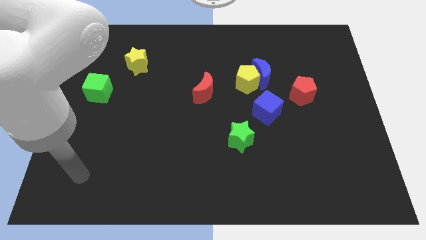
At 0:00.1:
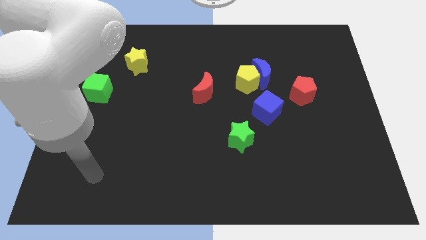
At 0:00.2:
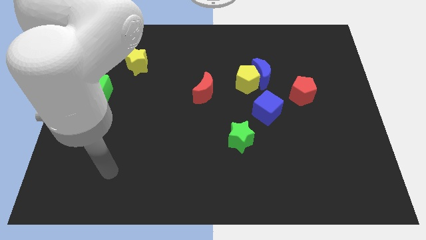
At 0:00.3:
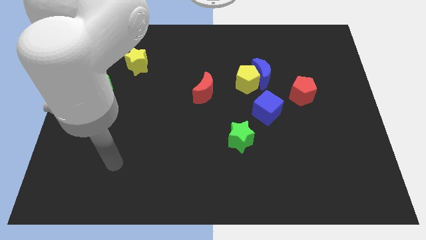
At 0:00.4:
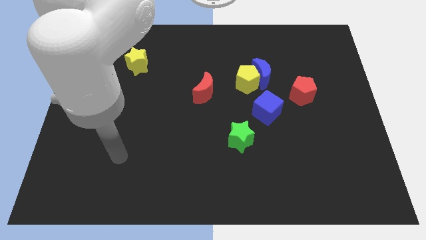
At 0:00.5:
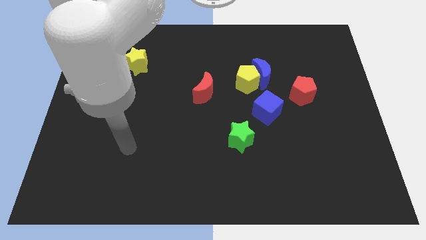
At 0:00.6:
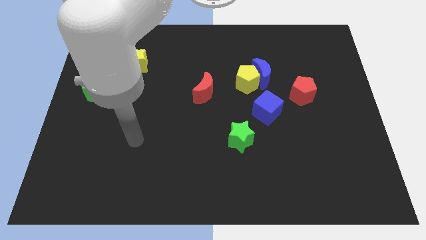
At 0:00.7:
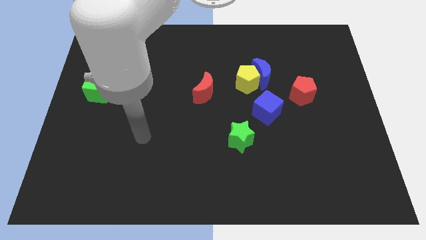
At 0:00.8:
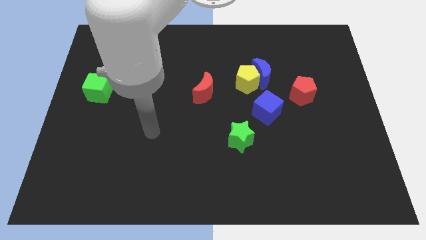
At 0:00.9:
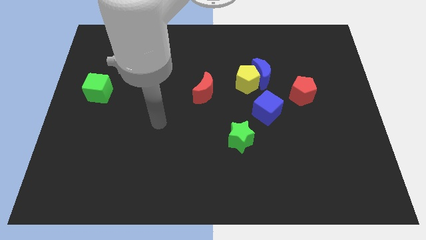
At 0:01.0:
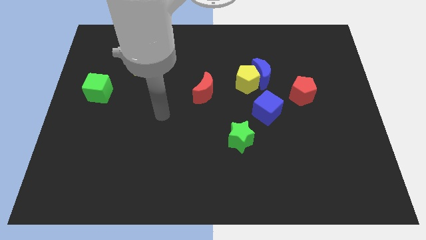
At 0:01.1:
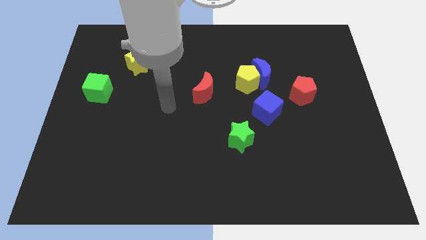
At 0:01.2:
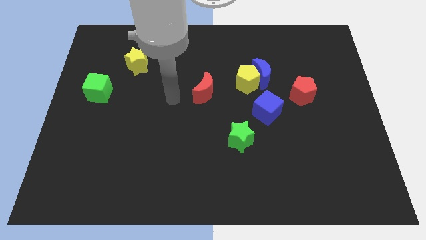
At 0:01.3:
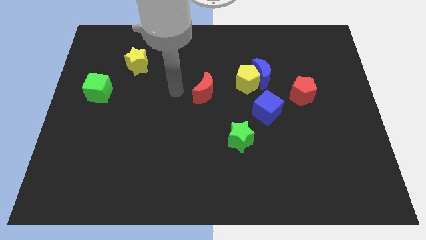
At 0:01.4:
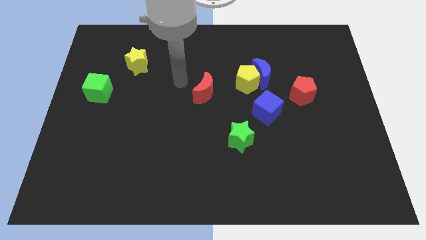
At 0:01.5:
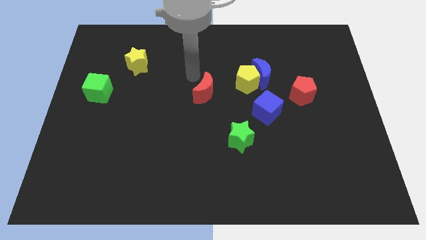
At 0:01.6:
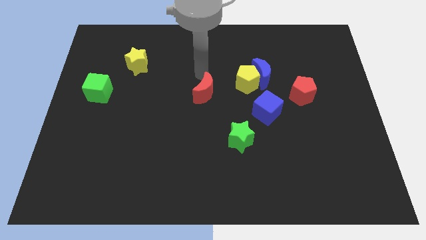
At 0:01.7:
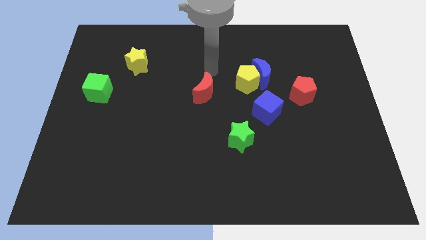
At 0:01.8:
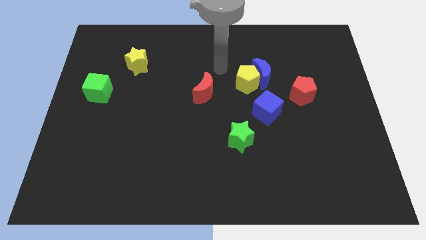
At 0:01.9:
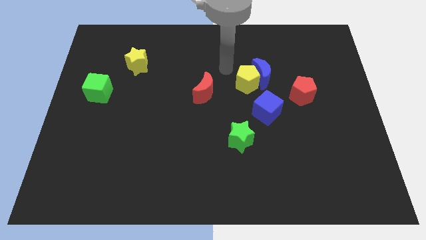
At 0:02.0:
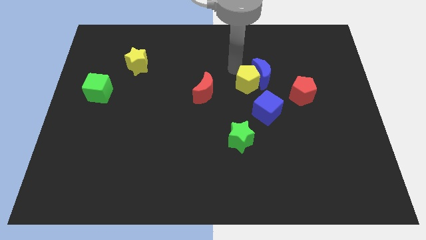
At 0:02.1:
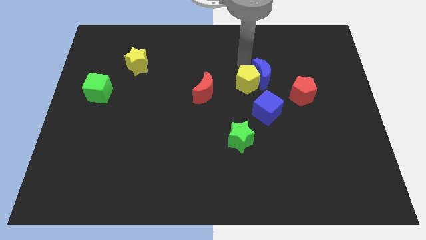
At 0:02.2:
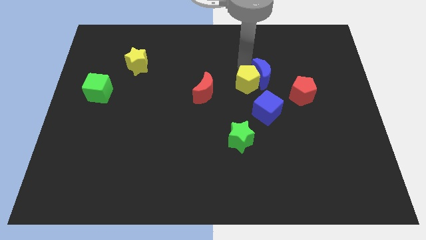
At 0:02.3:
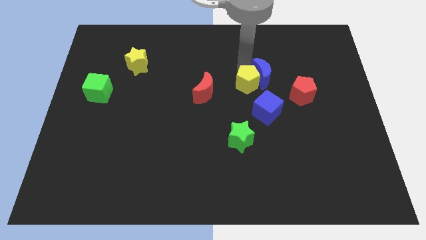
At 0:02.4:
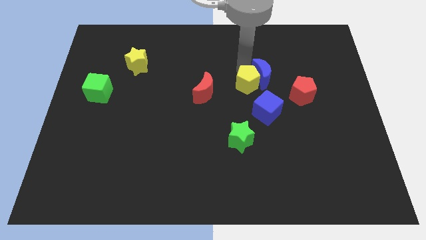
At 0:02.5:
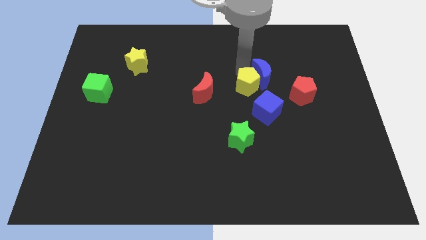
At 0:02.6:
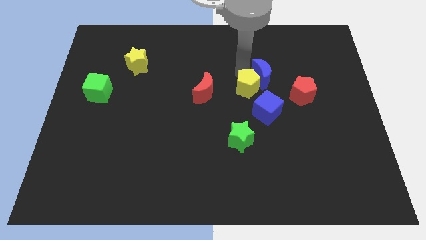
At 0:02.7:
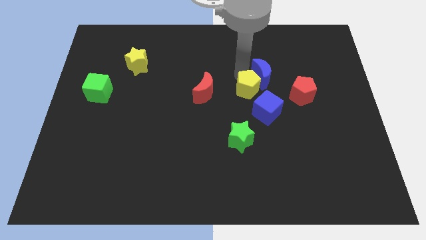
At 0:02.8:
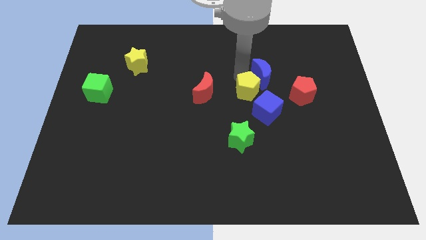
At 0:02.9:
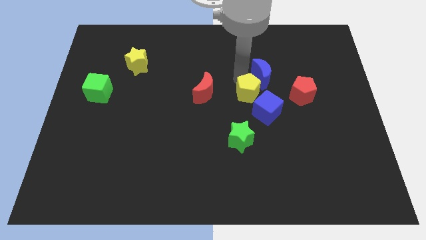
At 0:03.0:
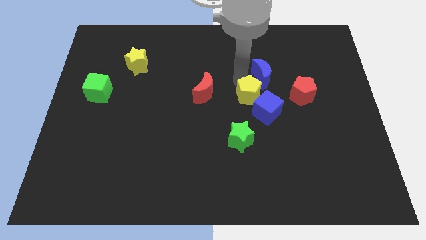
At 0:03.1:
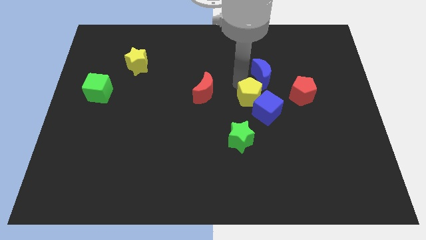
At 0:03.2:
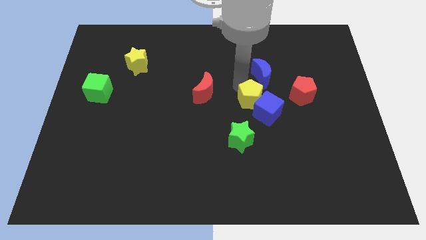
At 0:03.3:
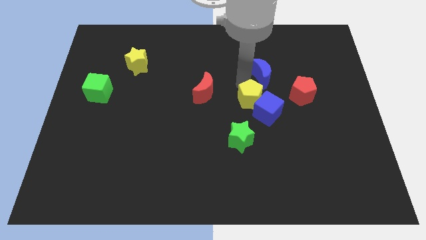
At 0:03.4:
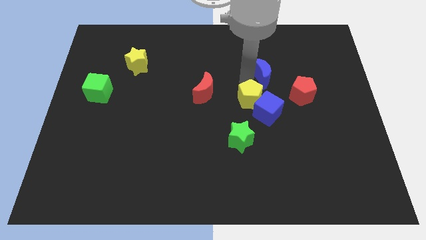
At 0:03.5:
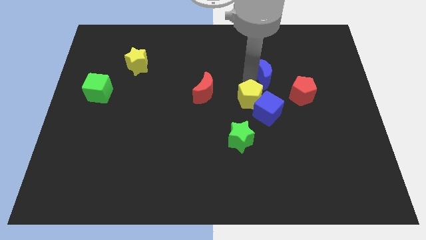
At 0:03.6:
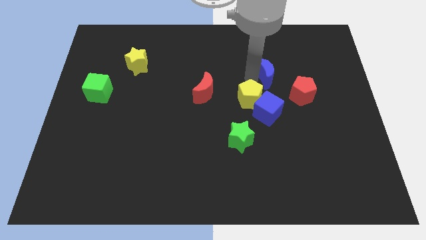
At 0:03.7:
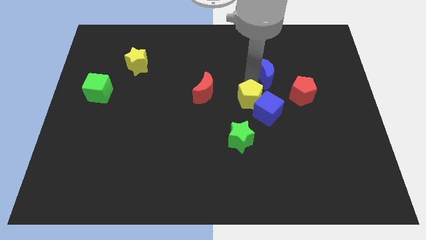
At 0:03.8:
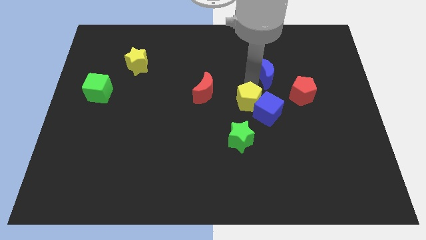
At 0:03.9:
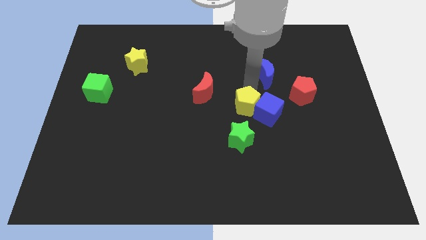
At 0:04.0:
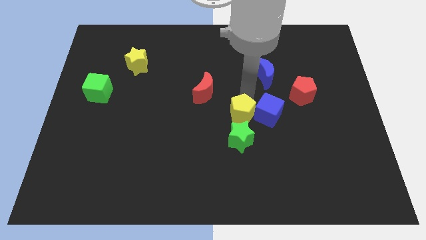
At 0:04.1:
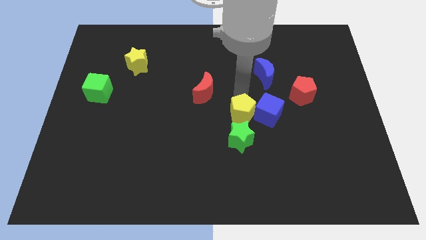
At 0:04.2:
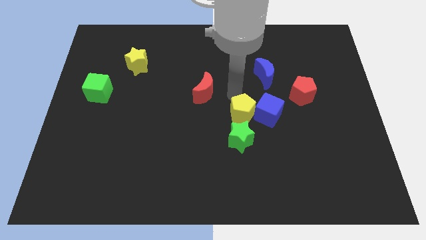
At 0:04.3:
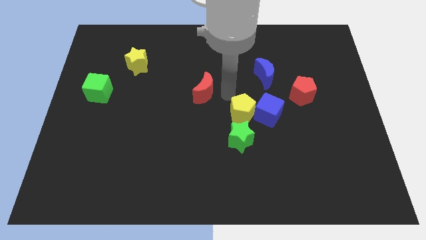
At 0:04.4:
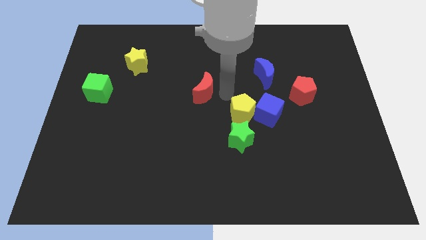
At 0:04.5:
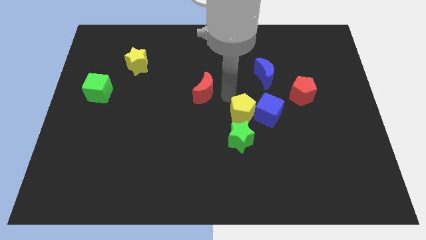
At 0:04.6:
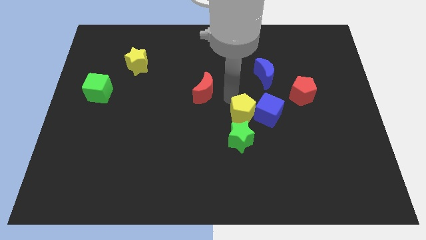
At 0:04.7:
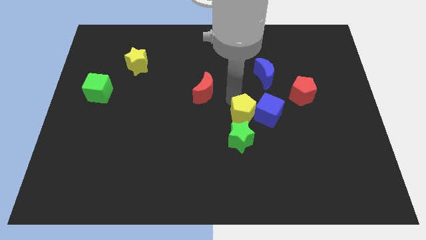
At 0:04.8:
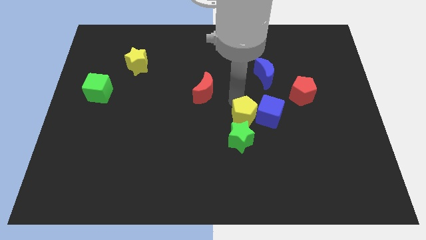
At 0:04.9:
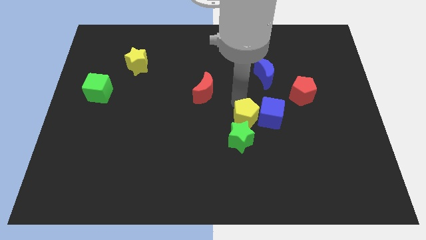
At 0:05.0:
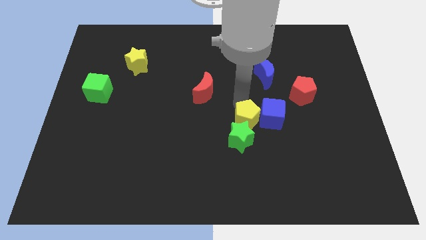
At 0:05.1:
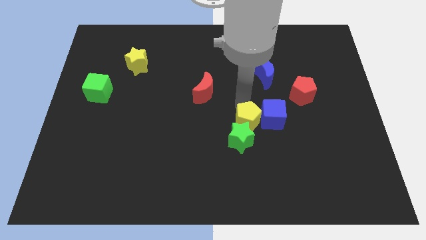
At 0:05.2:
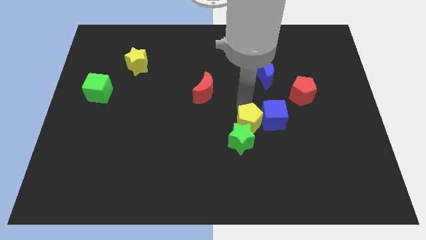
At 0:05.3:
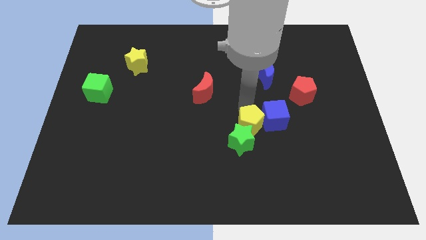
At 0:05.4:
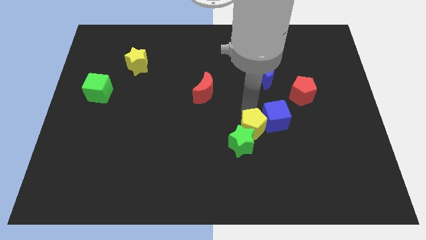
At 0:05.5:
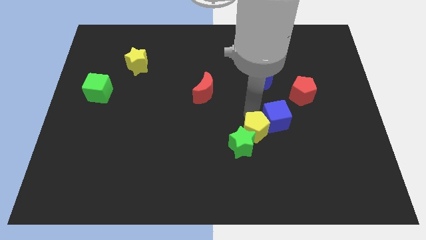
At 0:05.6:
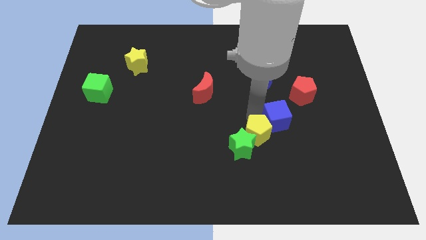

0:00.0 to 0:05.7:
put the yellow pentagon to the bottom of the blue cube

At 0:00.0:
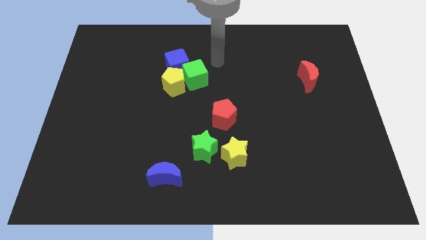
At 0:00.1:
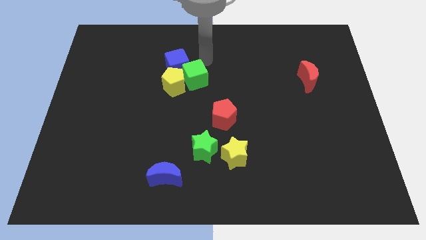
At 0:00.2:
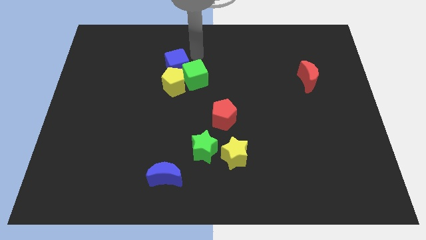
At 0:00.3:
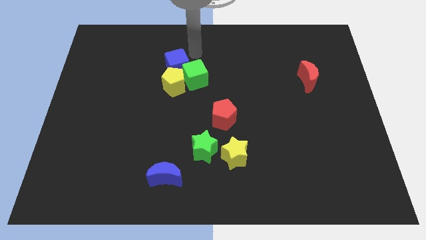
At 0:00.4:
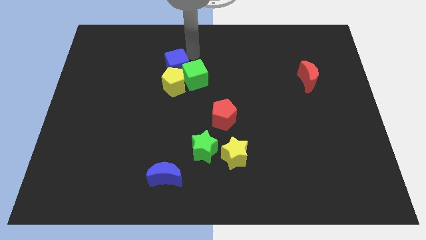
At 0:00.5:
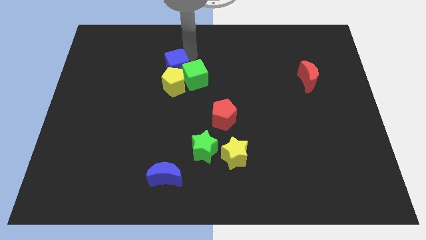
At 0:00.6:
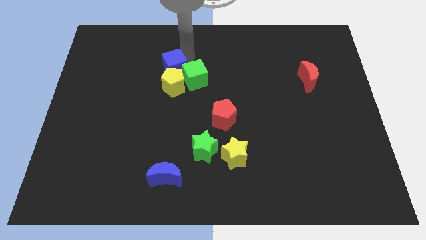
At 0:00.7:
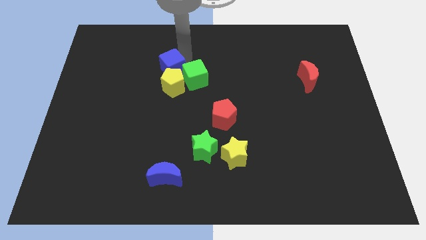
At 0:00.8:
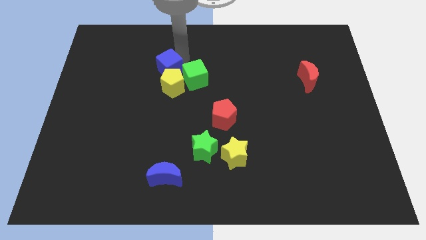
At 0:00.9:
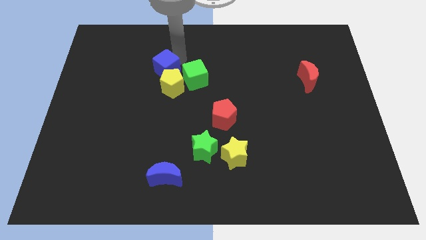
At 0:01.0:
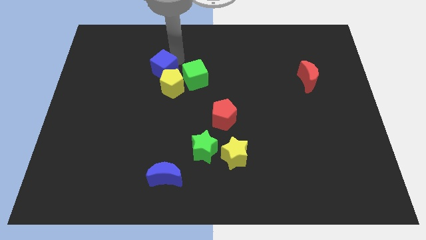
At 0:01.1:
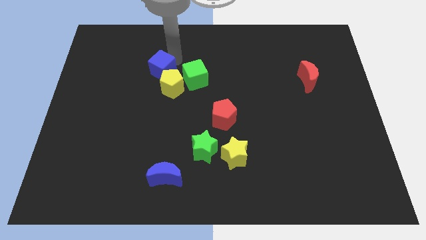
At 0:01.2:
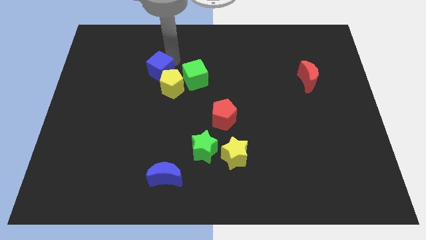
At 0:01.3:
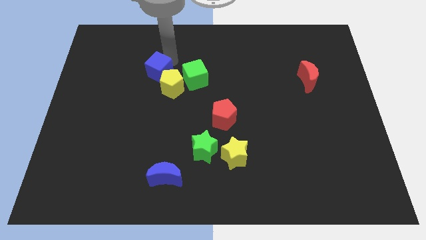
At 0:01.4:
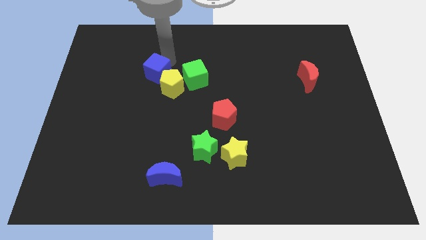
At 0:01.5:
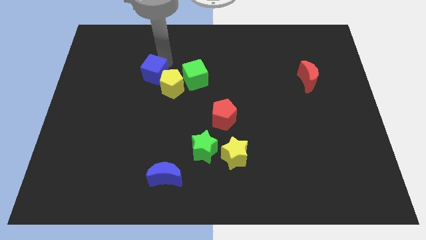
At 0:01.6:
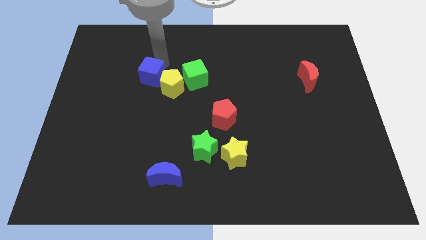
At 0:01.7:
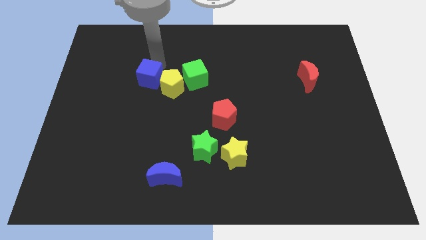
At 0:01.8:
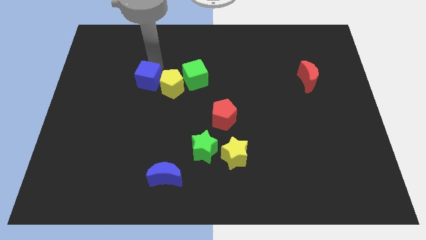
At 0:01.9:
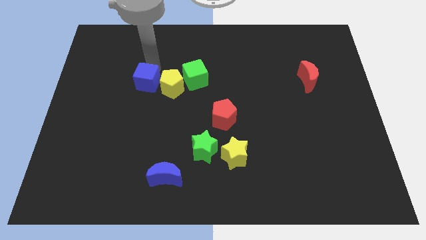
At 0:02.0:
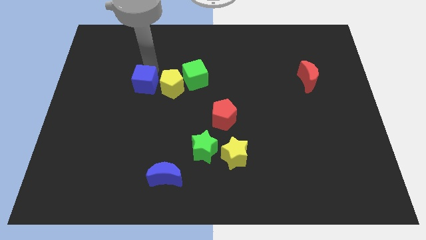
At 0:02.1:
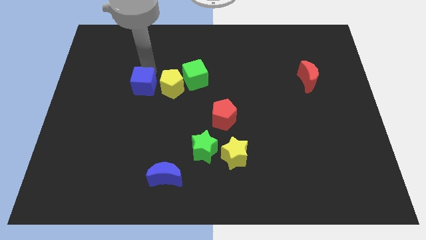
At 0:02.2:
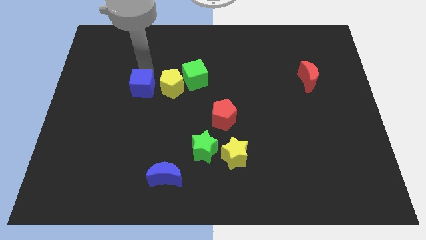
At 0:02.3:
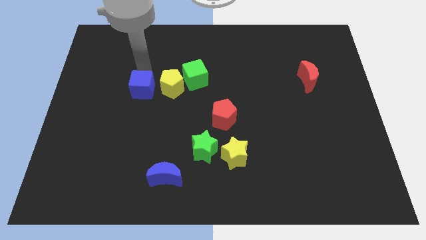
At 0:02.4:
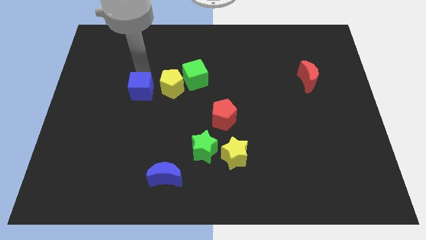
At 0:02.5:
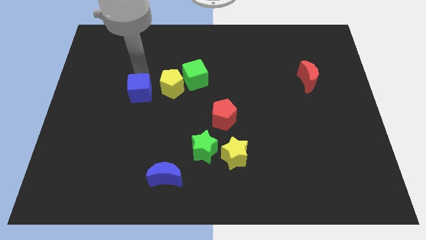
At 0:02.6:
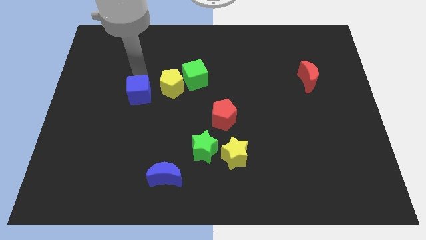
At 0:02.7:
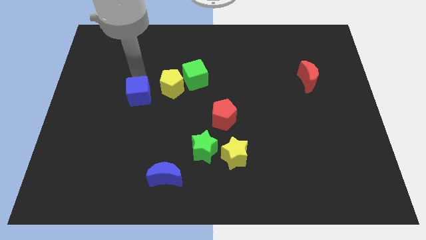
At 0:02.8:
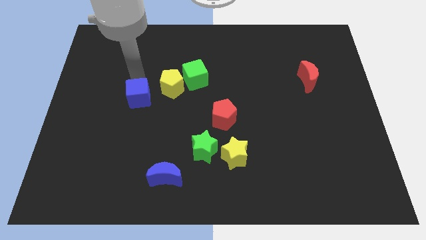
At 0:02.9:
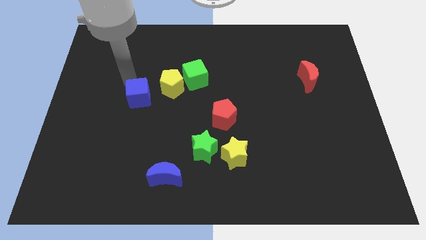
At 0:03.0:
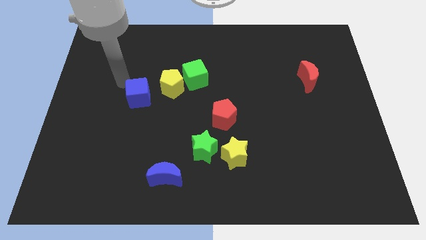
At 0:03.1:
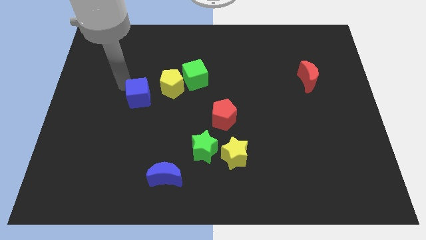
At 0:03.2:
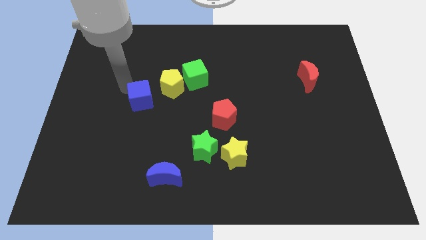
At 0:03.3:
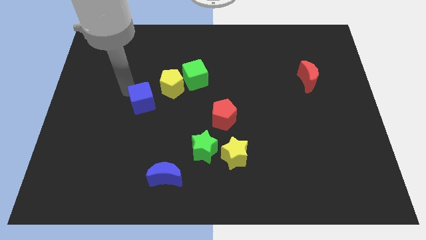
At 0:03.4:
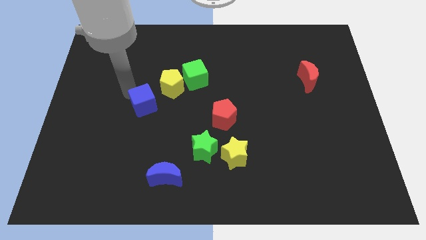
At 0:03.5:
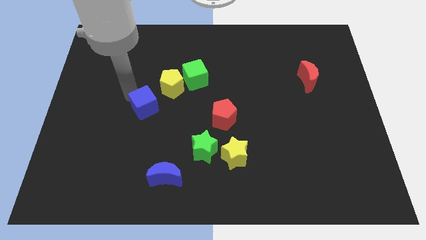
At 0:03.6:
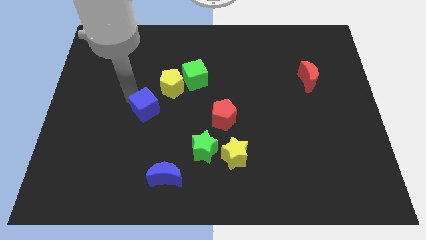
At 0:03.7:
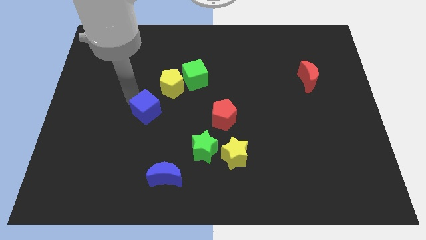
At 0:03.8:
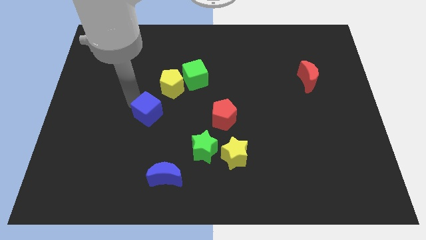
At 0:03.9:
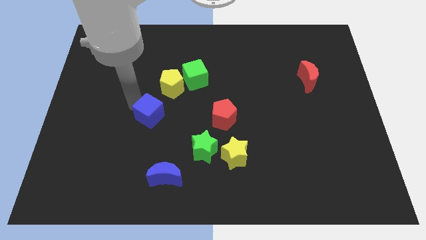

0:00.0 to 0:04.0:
slide the blue cube to the bottom side of the yellow pentagon
